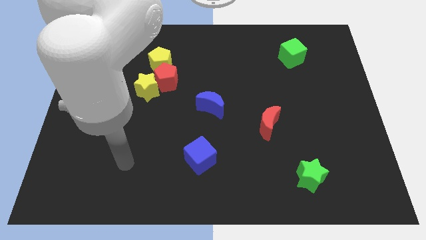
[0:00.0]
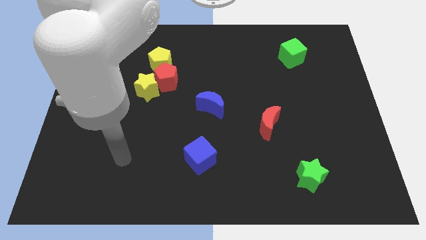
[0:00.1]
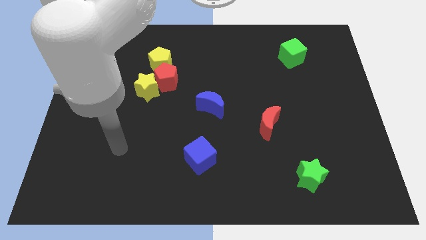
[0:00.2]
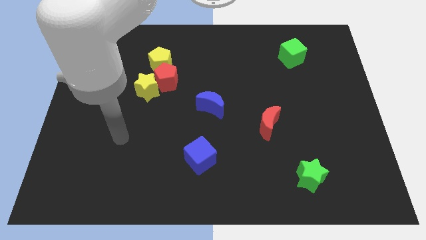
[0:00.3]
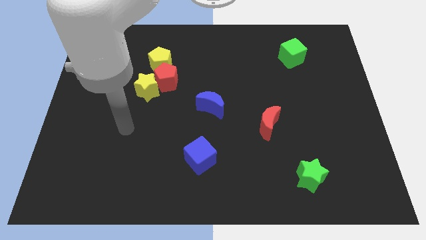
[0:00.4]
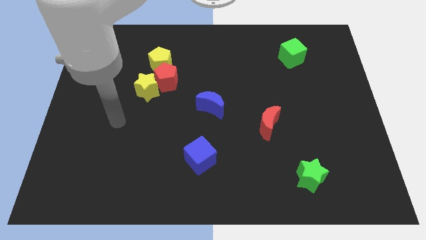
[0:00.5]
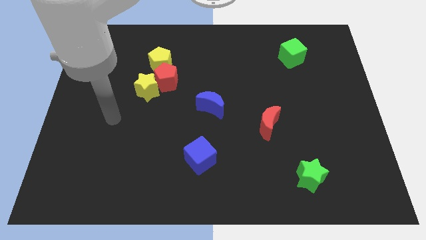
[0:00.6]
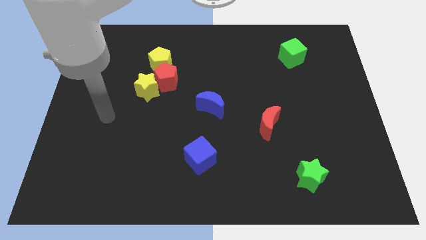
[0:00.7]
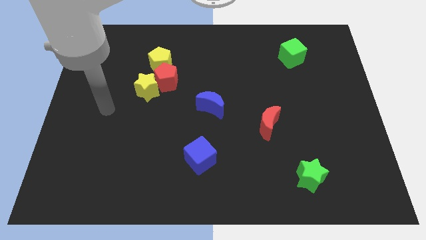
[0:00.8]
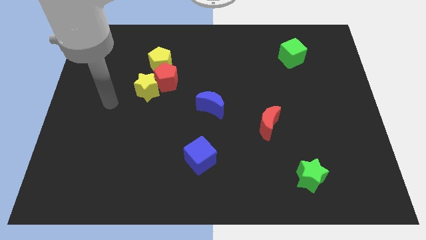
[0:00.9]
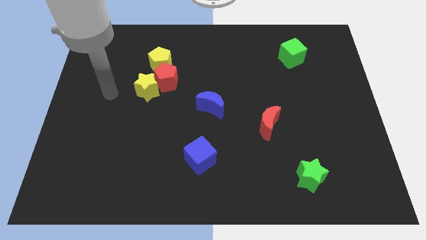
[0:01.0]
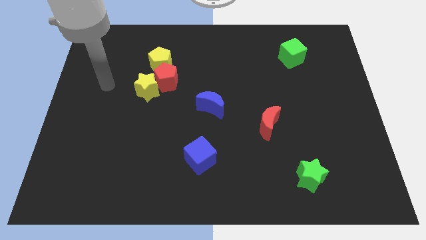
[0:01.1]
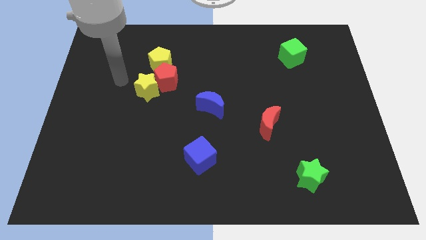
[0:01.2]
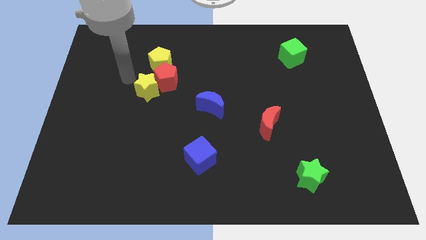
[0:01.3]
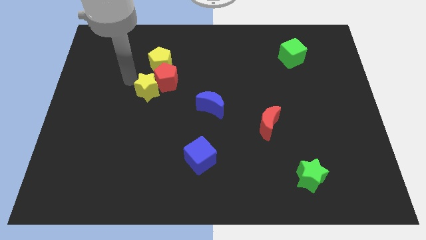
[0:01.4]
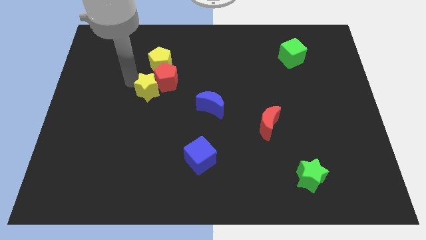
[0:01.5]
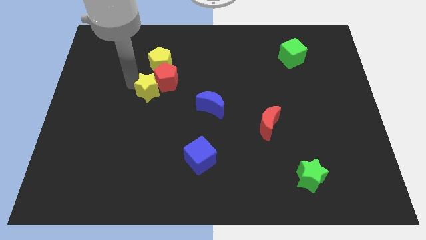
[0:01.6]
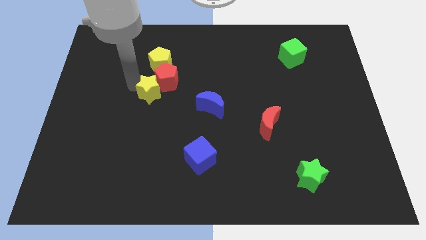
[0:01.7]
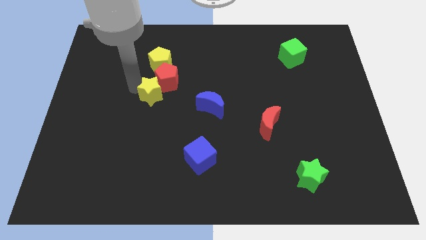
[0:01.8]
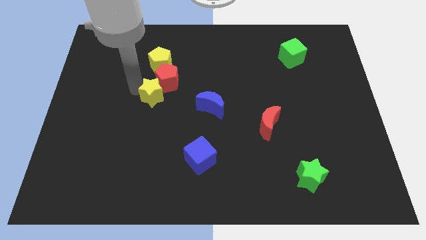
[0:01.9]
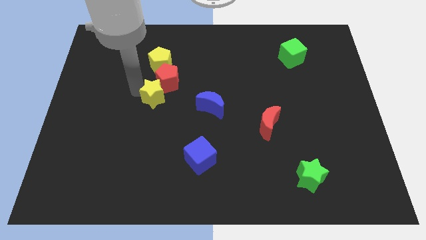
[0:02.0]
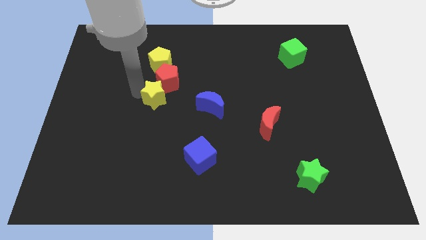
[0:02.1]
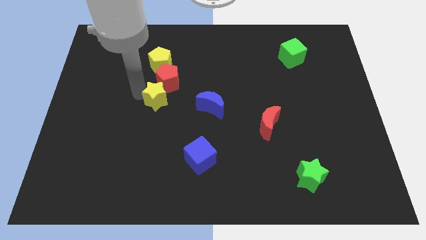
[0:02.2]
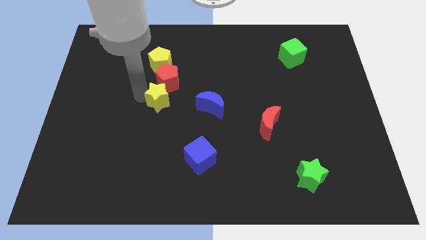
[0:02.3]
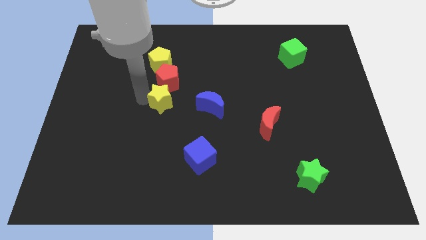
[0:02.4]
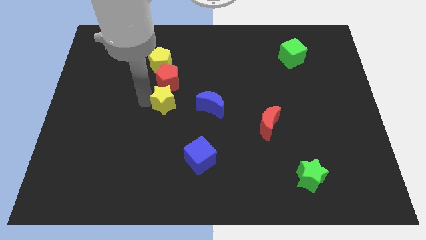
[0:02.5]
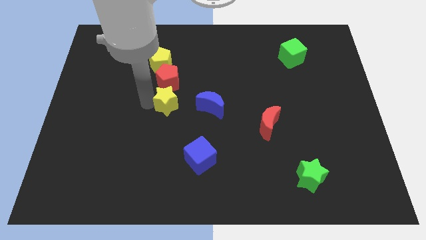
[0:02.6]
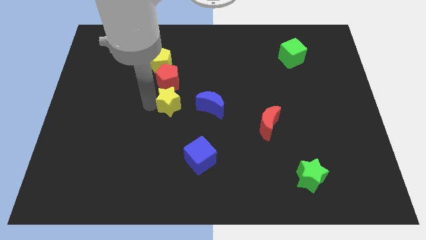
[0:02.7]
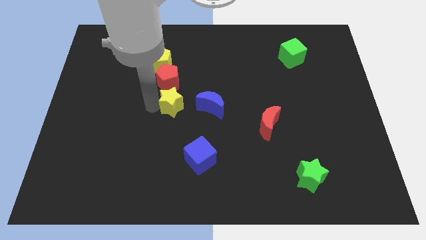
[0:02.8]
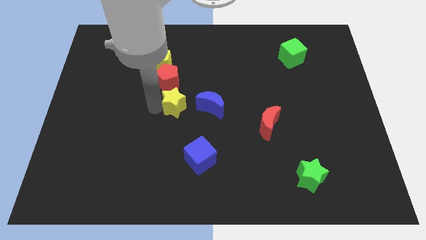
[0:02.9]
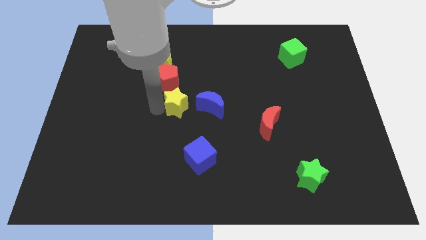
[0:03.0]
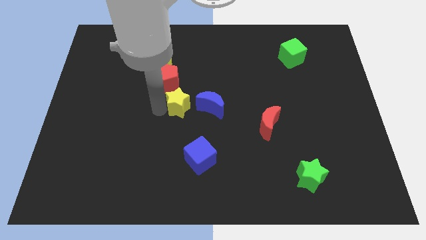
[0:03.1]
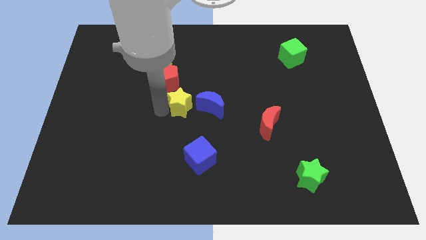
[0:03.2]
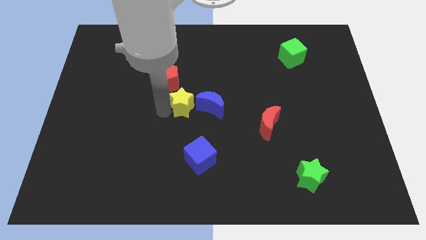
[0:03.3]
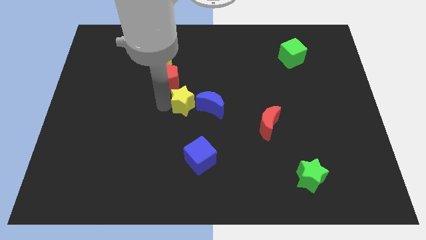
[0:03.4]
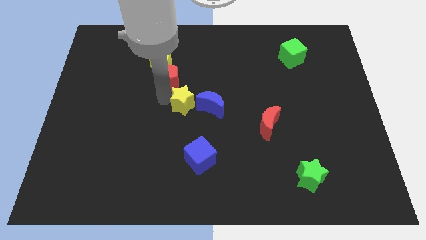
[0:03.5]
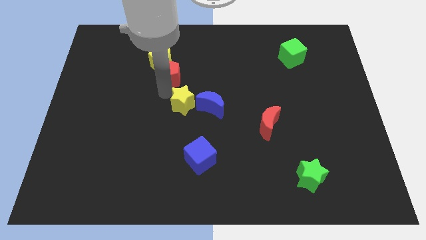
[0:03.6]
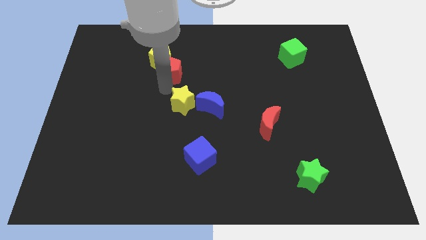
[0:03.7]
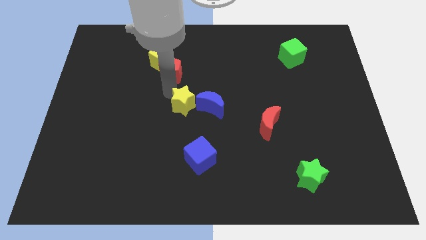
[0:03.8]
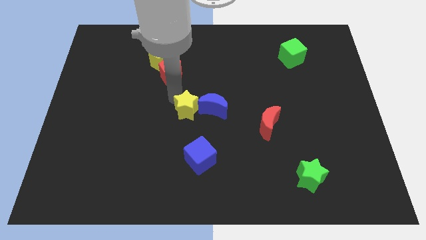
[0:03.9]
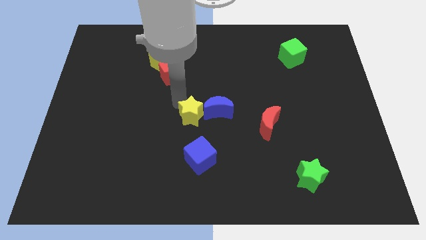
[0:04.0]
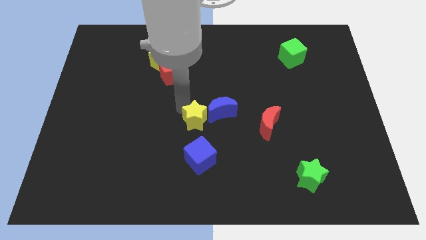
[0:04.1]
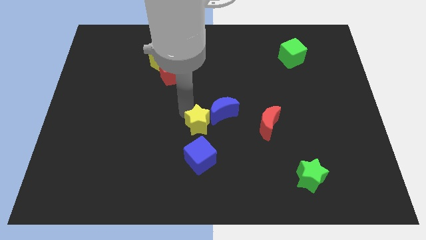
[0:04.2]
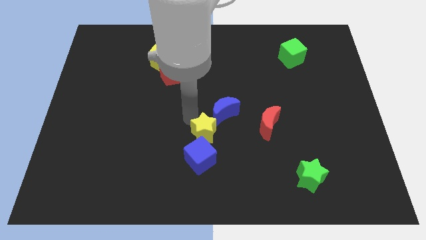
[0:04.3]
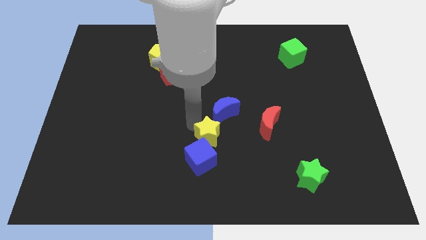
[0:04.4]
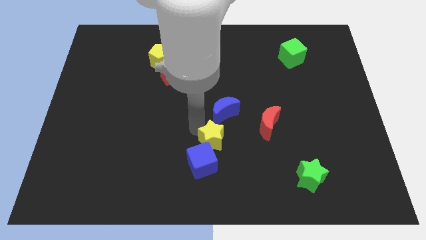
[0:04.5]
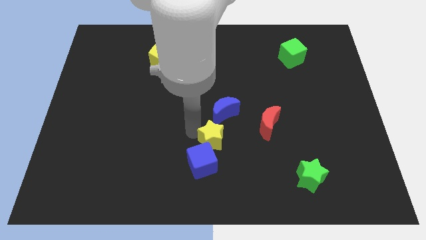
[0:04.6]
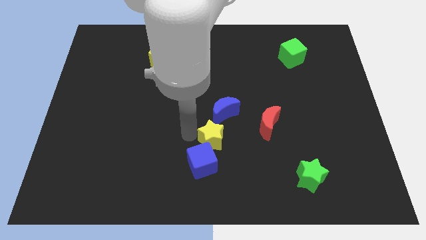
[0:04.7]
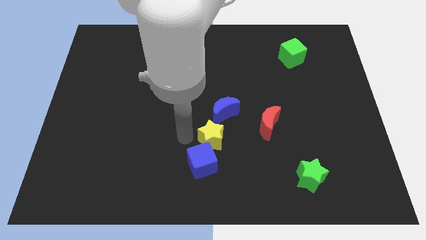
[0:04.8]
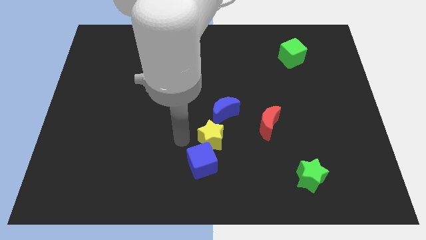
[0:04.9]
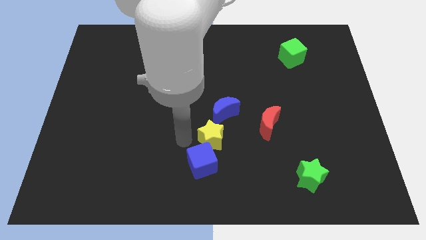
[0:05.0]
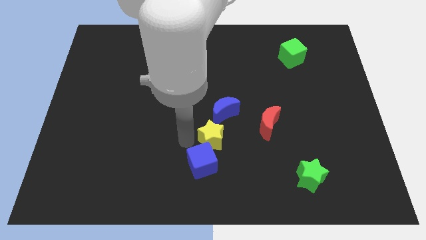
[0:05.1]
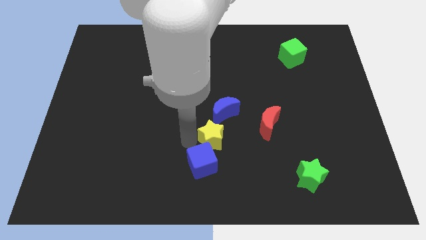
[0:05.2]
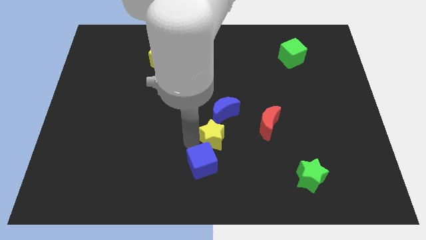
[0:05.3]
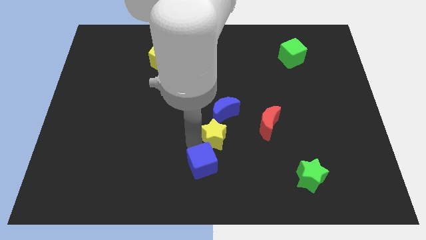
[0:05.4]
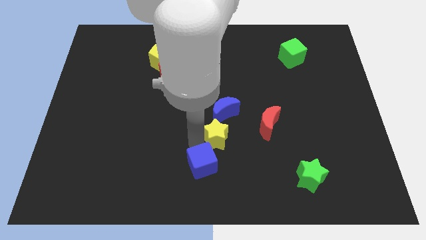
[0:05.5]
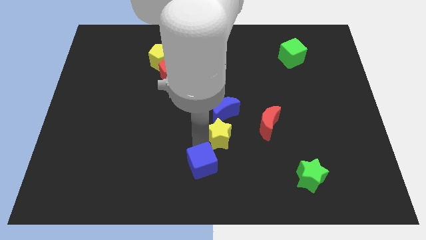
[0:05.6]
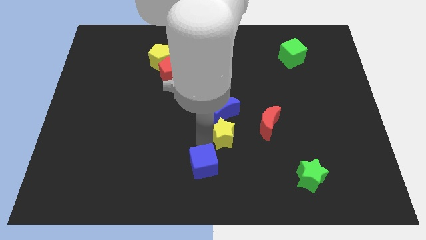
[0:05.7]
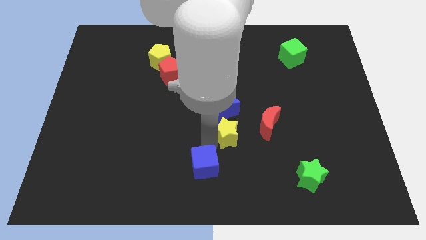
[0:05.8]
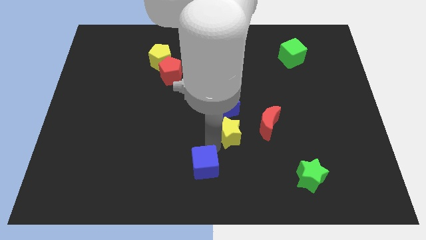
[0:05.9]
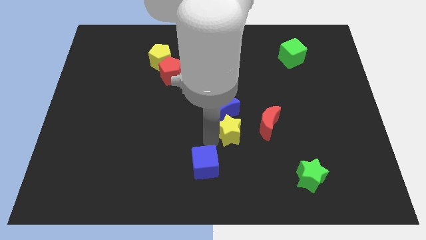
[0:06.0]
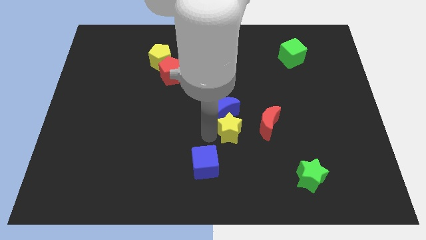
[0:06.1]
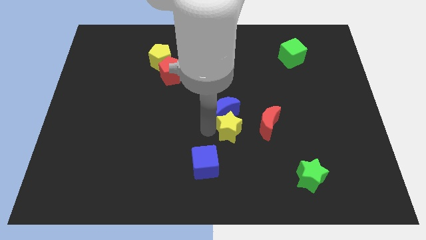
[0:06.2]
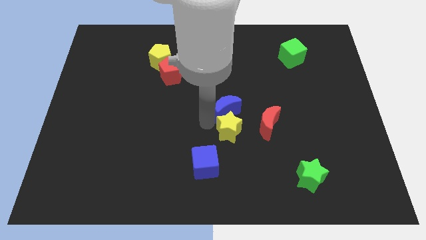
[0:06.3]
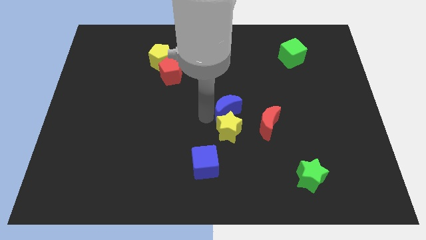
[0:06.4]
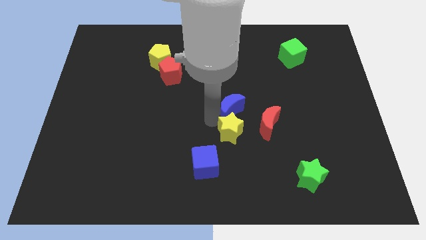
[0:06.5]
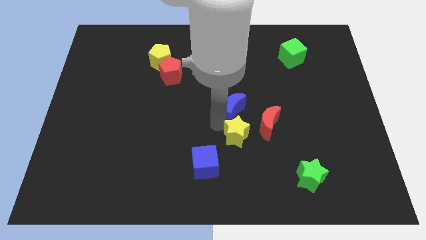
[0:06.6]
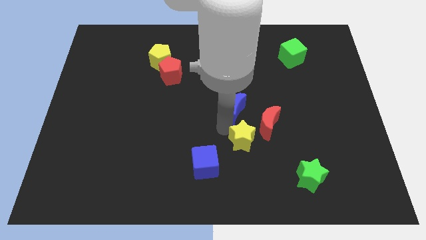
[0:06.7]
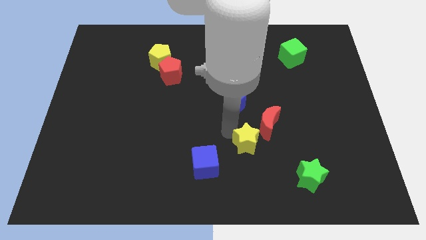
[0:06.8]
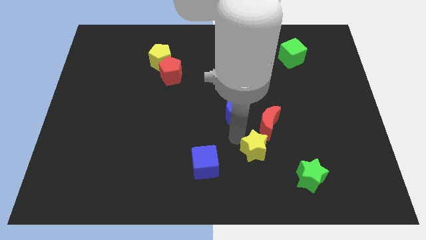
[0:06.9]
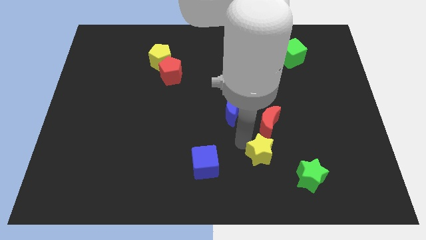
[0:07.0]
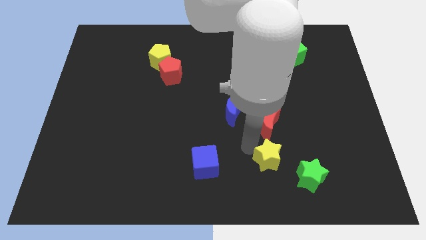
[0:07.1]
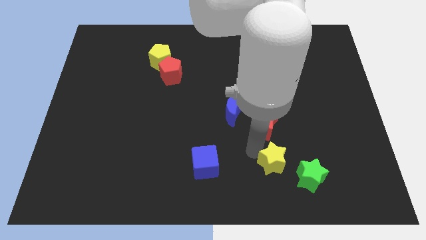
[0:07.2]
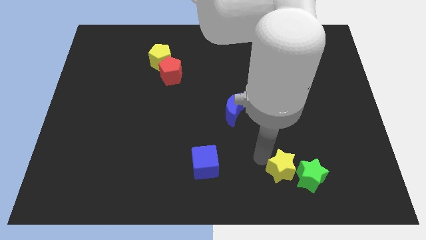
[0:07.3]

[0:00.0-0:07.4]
push the yellow star next to the green star
